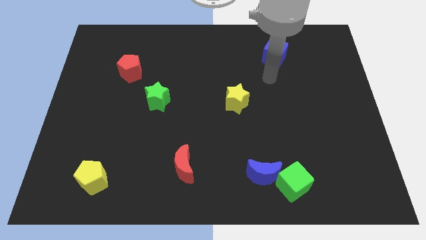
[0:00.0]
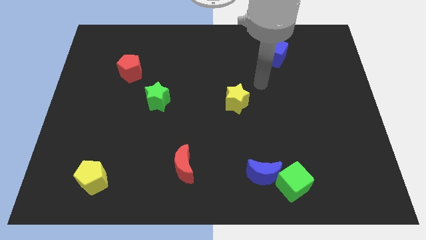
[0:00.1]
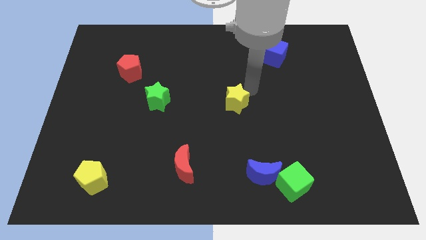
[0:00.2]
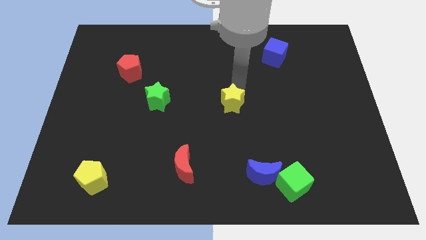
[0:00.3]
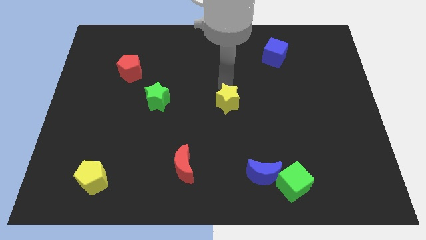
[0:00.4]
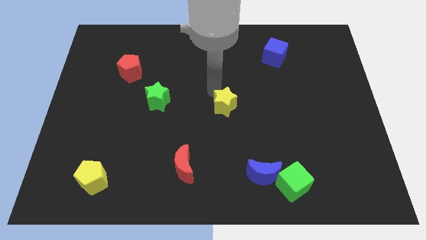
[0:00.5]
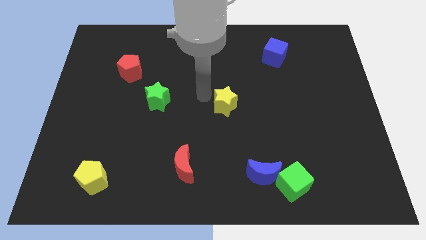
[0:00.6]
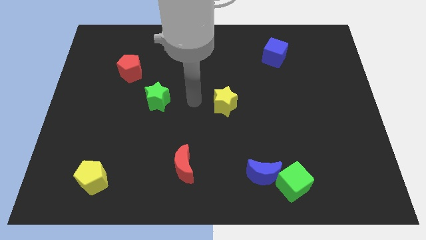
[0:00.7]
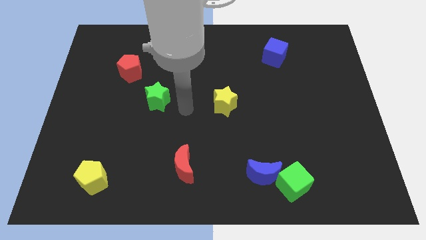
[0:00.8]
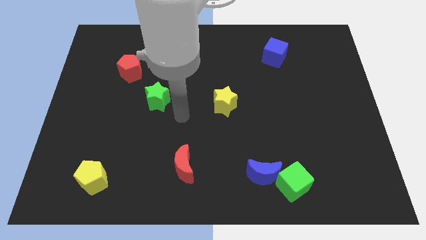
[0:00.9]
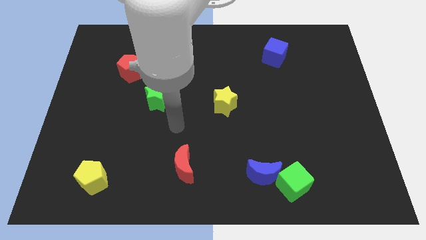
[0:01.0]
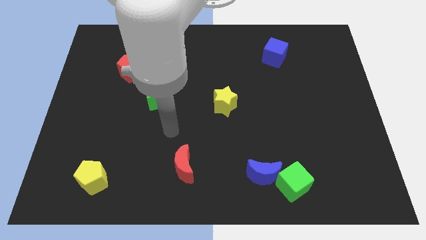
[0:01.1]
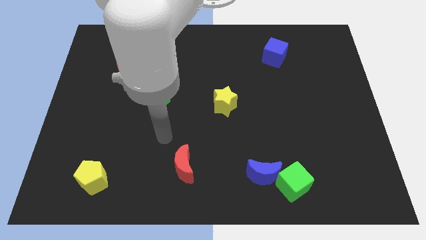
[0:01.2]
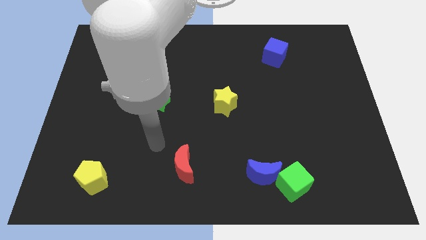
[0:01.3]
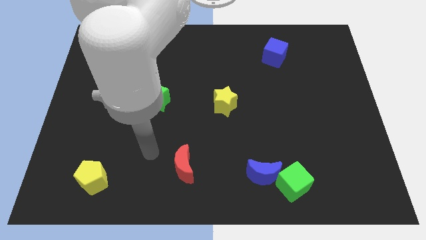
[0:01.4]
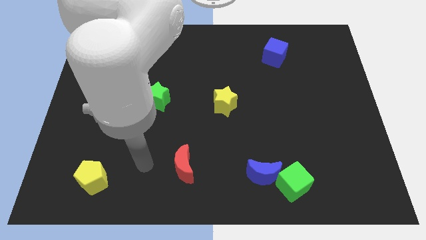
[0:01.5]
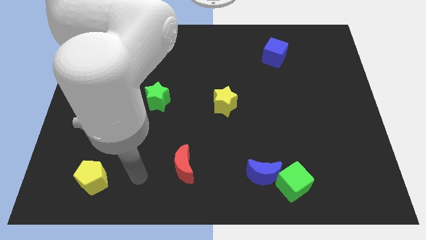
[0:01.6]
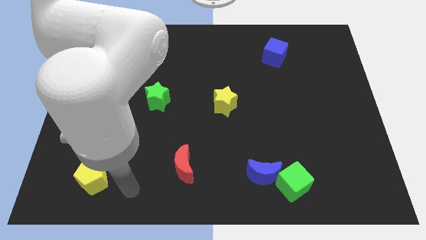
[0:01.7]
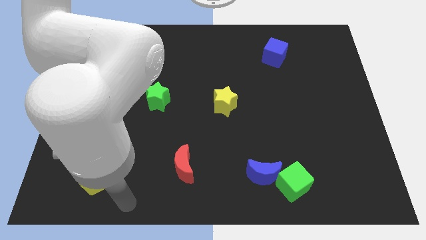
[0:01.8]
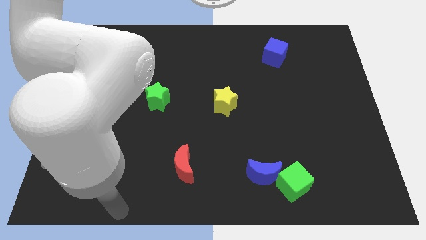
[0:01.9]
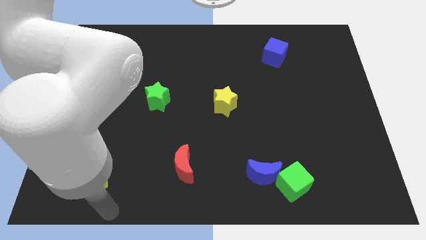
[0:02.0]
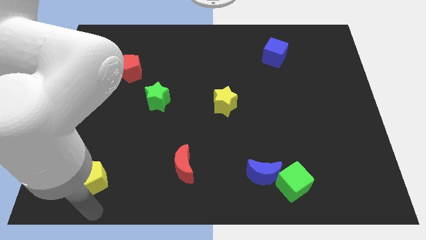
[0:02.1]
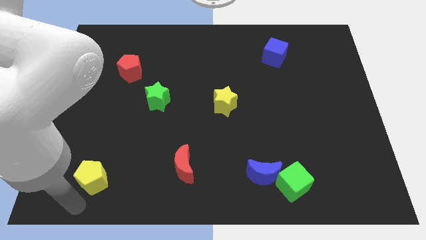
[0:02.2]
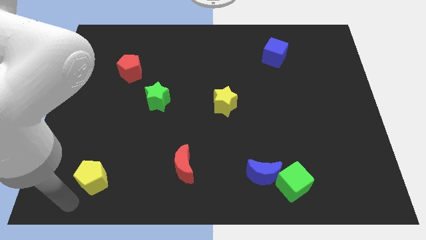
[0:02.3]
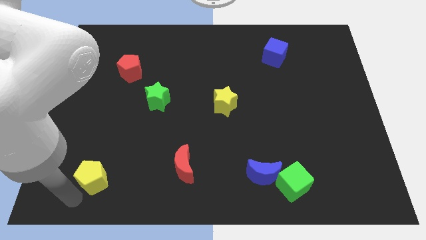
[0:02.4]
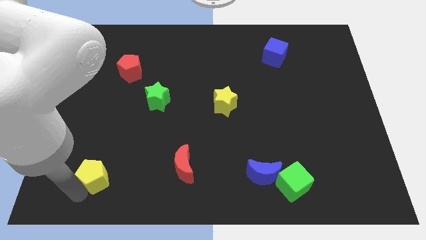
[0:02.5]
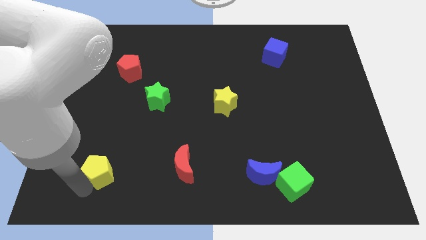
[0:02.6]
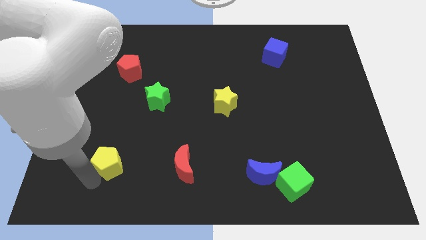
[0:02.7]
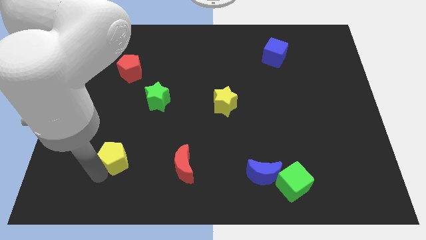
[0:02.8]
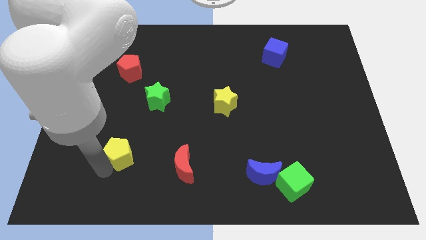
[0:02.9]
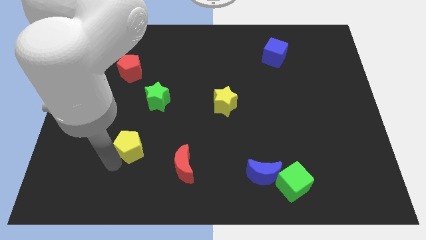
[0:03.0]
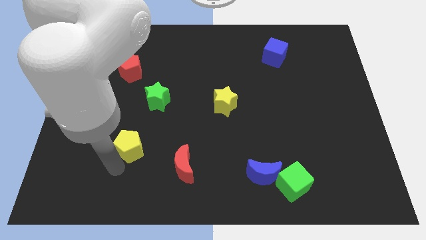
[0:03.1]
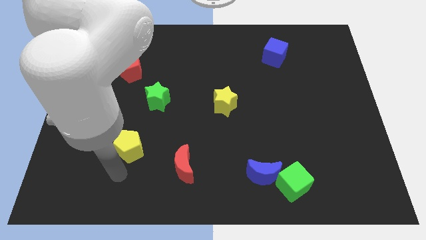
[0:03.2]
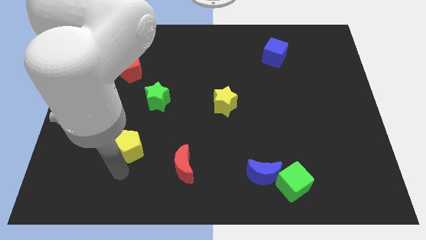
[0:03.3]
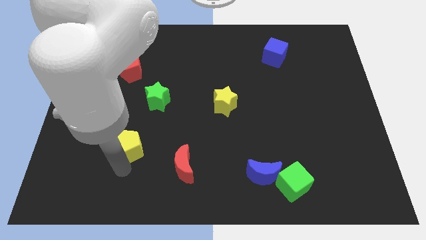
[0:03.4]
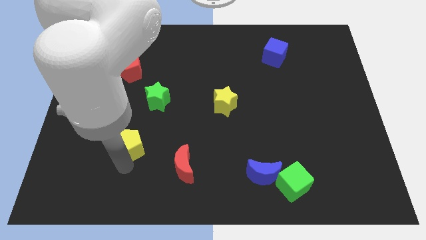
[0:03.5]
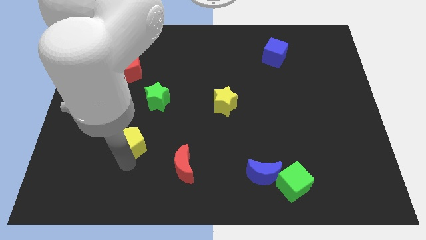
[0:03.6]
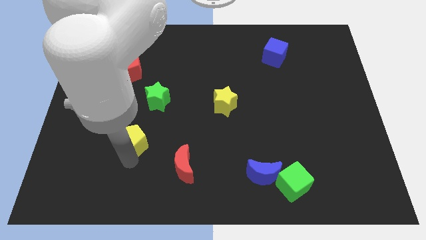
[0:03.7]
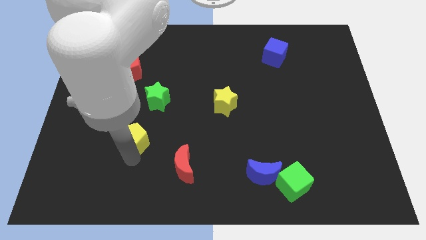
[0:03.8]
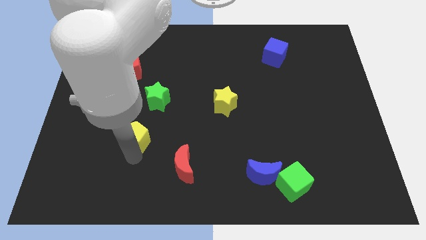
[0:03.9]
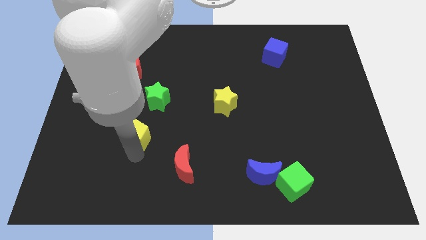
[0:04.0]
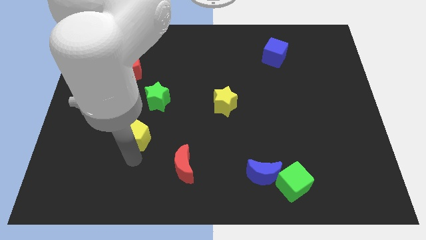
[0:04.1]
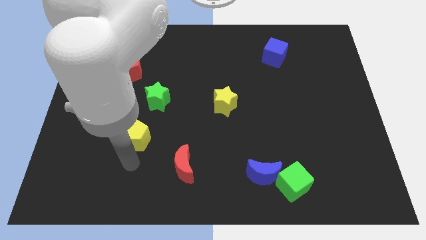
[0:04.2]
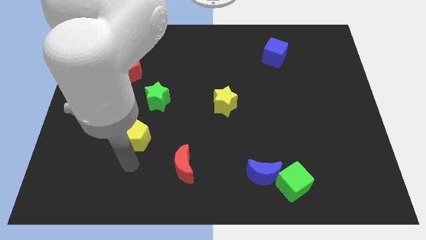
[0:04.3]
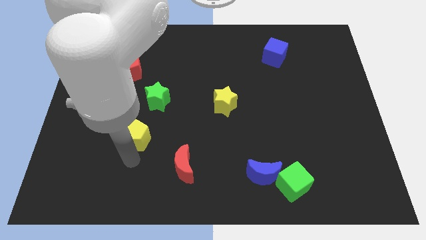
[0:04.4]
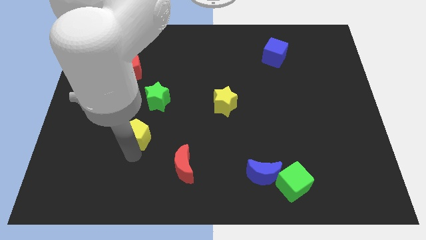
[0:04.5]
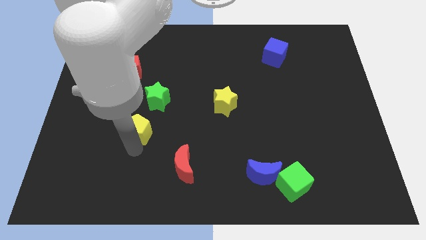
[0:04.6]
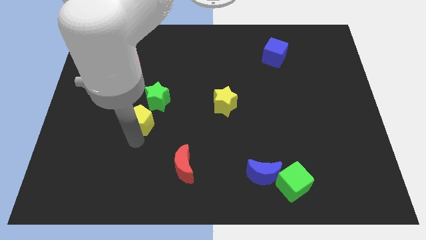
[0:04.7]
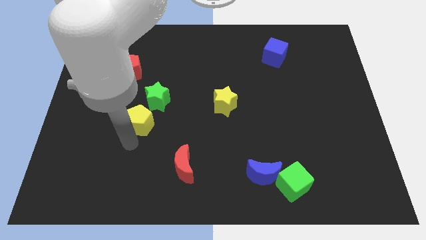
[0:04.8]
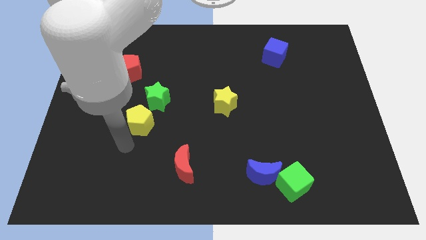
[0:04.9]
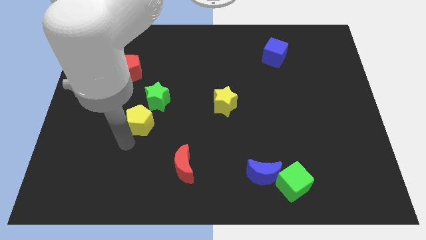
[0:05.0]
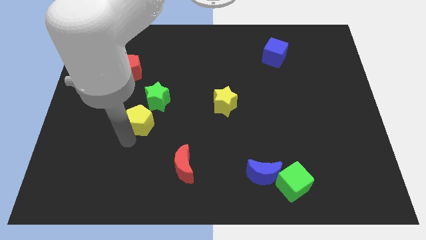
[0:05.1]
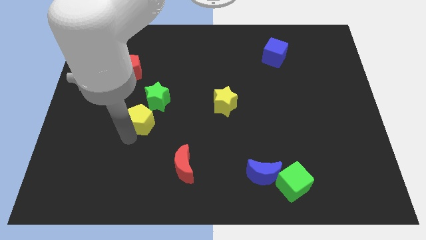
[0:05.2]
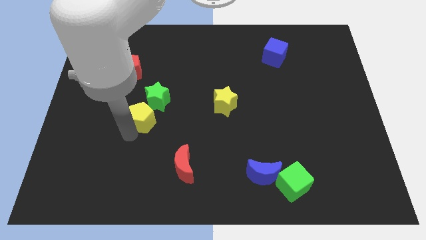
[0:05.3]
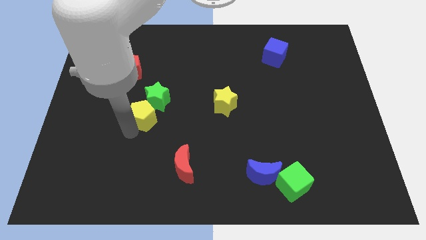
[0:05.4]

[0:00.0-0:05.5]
slide the yellow pentagon next to the green star

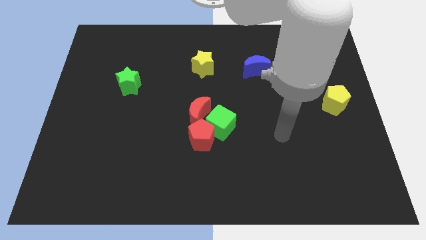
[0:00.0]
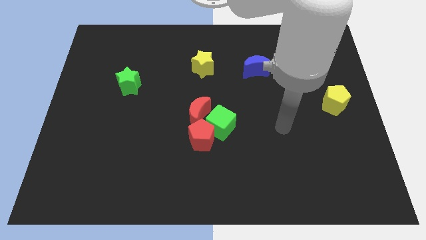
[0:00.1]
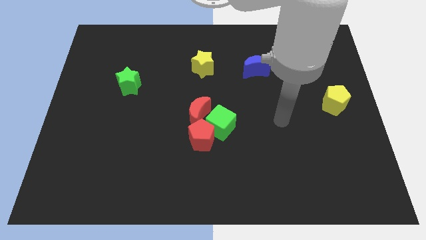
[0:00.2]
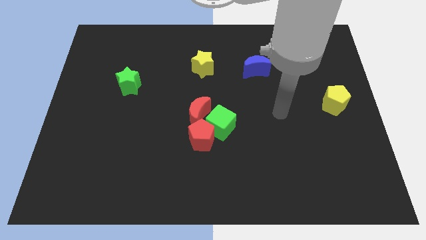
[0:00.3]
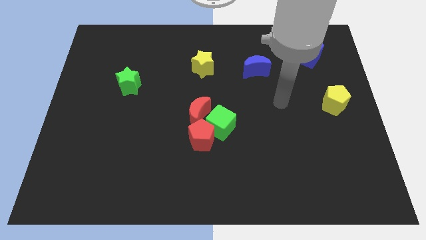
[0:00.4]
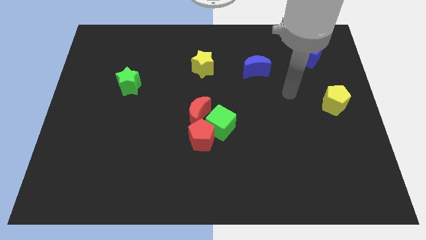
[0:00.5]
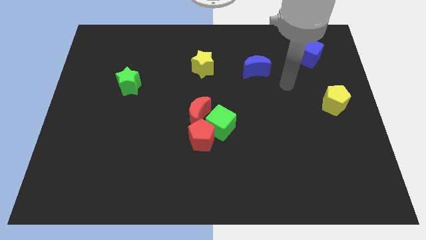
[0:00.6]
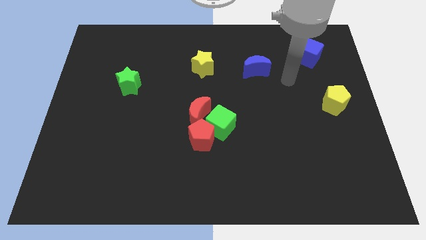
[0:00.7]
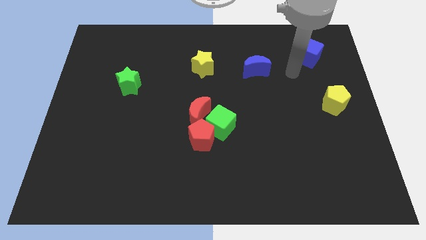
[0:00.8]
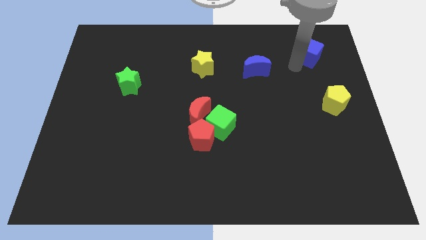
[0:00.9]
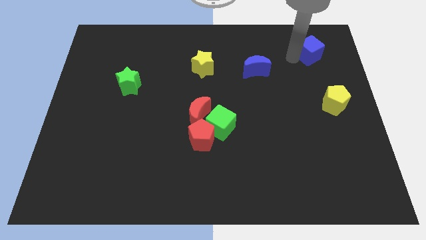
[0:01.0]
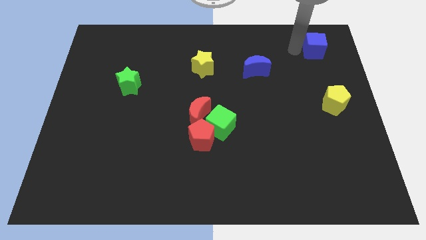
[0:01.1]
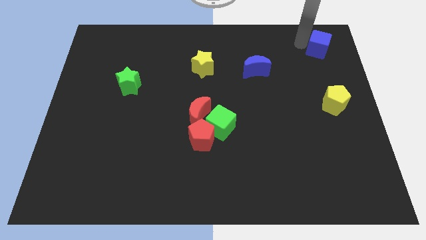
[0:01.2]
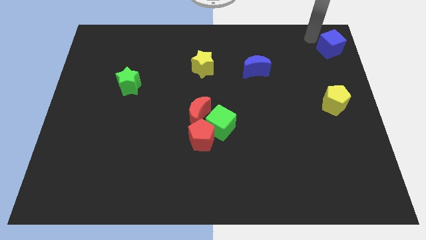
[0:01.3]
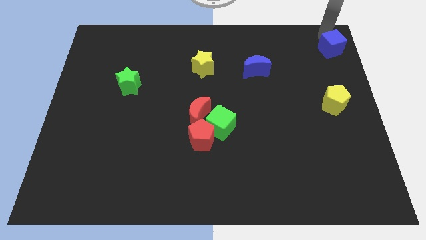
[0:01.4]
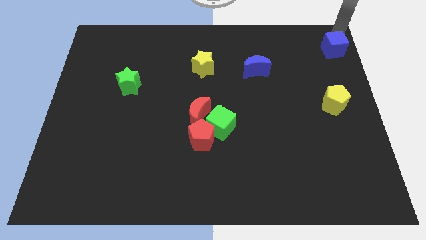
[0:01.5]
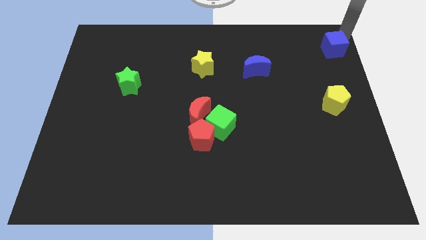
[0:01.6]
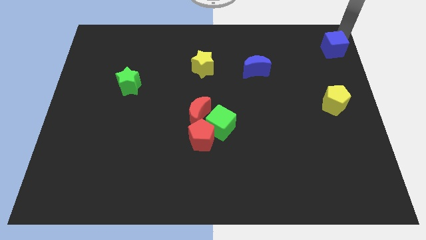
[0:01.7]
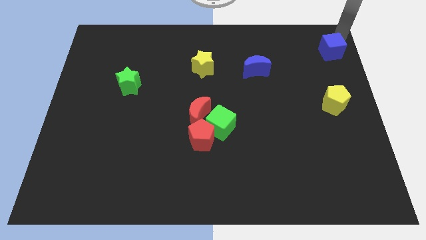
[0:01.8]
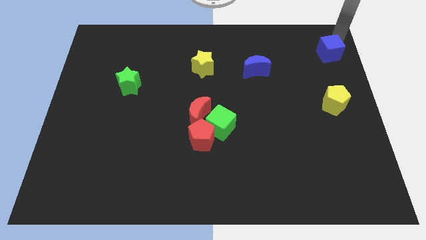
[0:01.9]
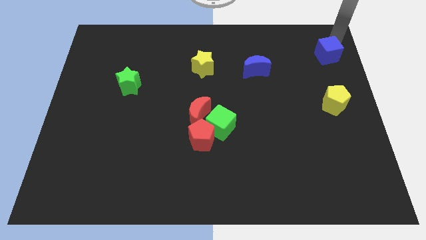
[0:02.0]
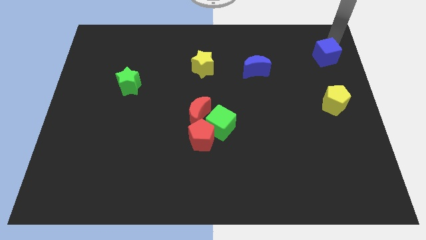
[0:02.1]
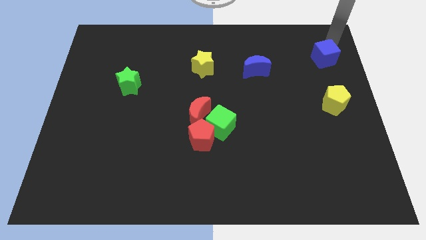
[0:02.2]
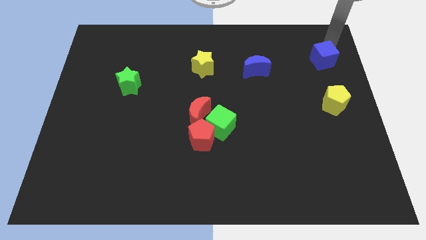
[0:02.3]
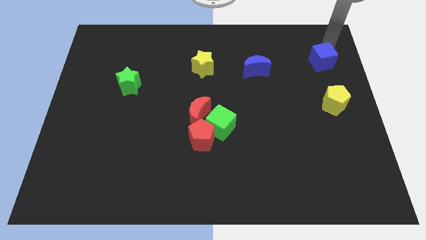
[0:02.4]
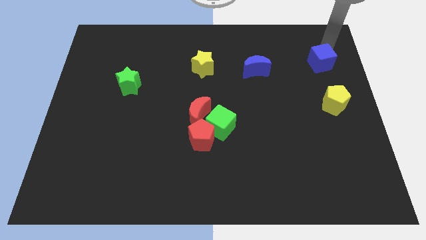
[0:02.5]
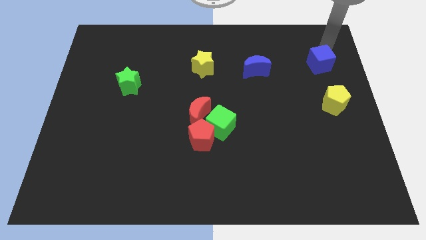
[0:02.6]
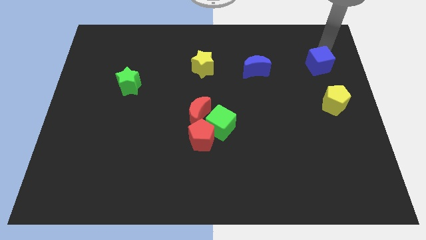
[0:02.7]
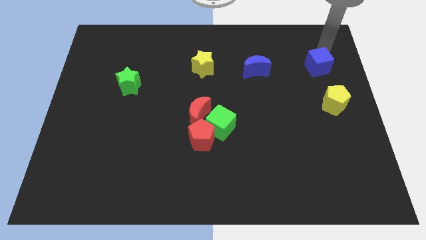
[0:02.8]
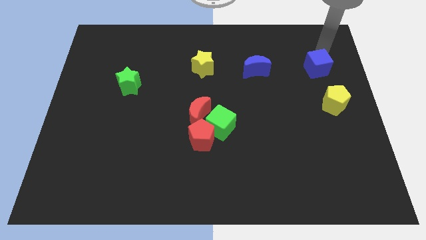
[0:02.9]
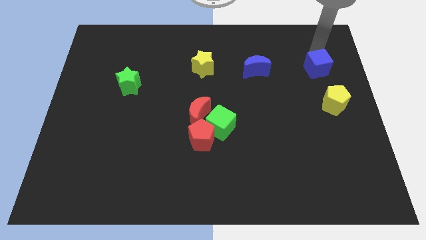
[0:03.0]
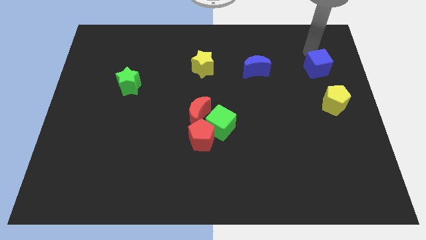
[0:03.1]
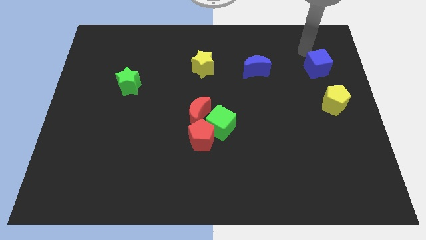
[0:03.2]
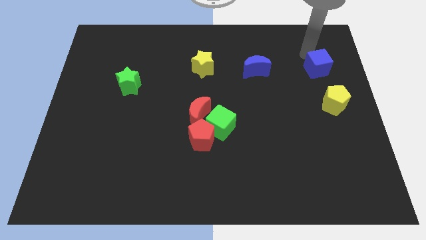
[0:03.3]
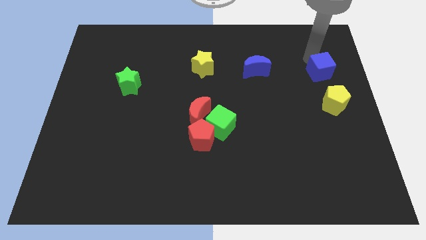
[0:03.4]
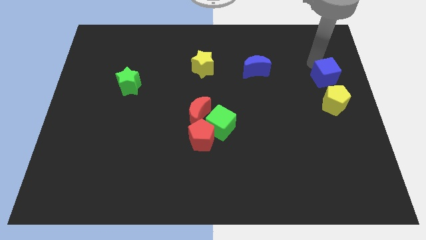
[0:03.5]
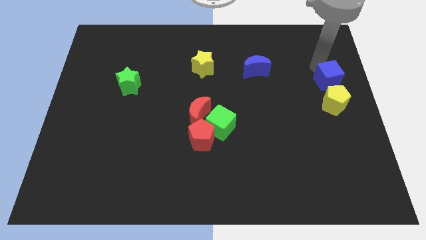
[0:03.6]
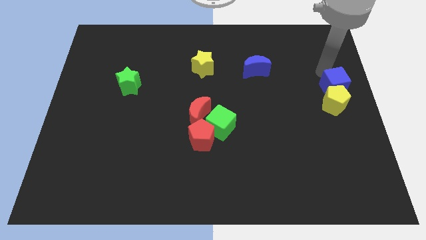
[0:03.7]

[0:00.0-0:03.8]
slide the blue cube next to the yellow pentagon
